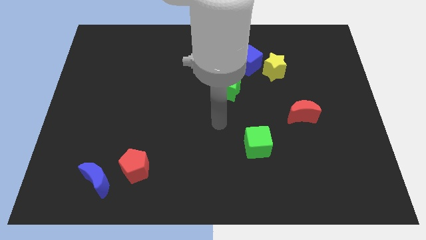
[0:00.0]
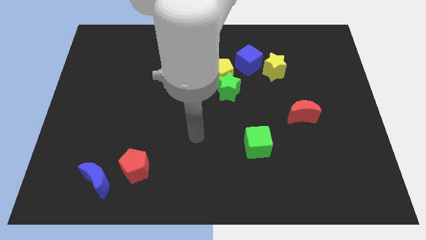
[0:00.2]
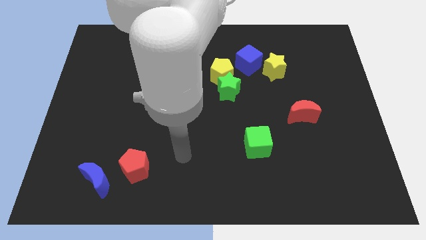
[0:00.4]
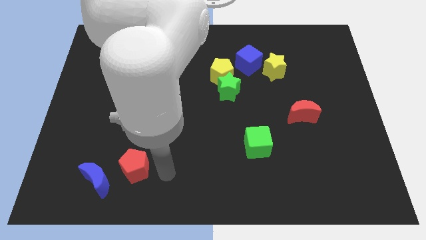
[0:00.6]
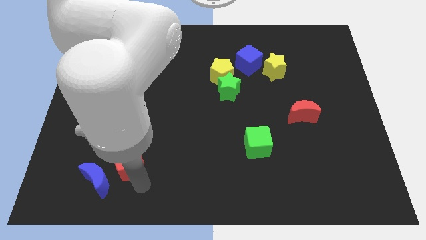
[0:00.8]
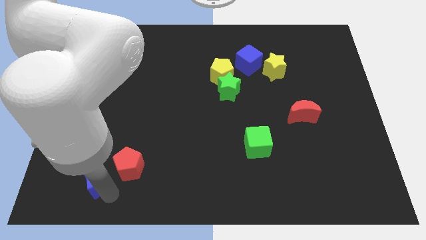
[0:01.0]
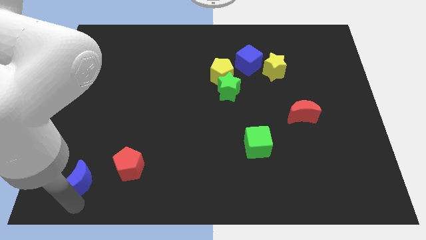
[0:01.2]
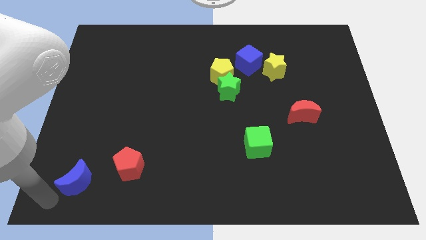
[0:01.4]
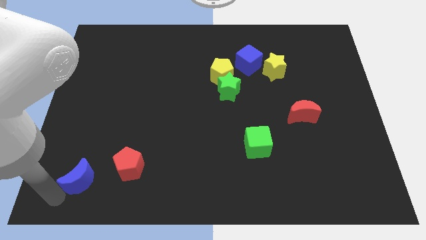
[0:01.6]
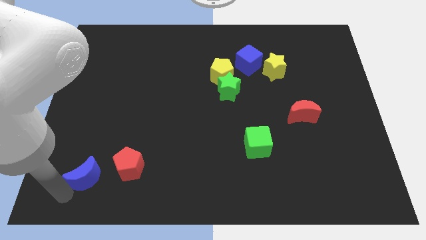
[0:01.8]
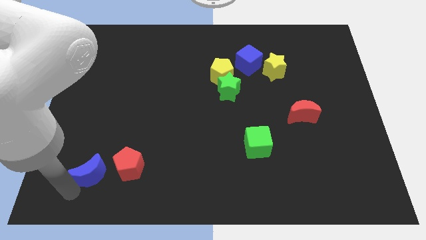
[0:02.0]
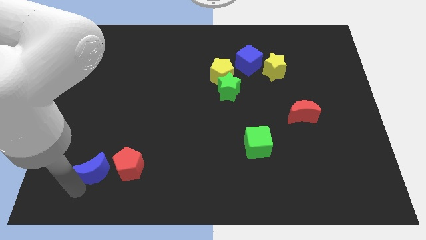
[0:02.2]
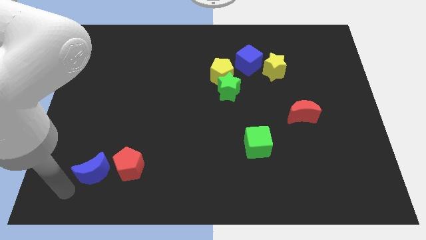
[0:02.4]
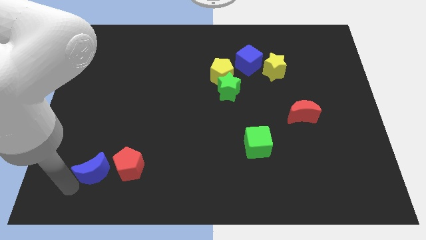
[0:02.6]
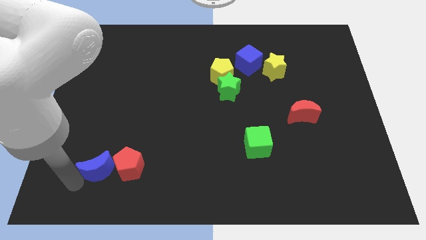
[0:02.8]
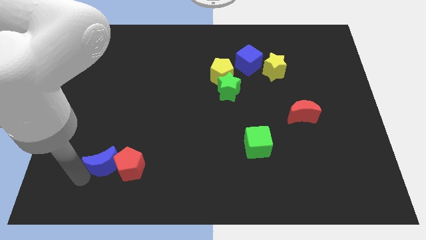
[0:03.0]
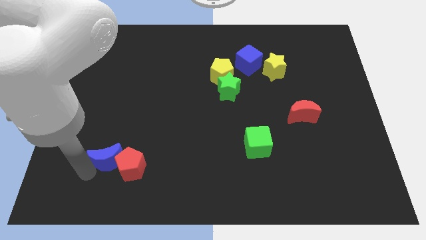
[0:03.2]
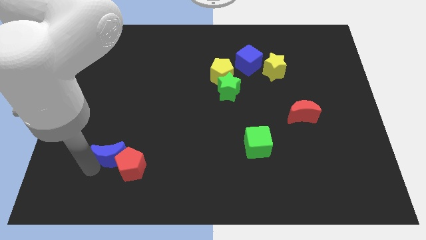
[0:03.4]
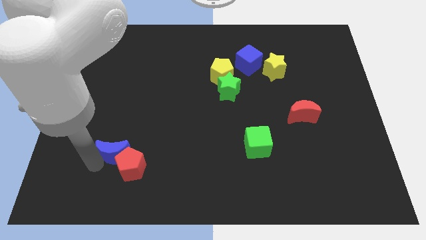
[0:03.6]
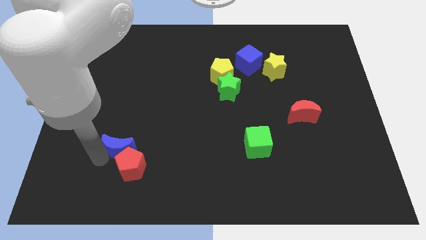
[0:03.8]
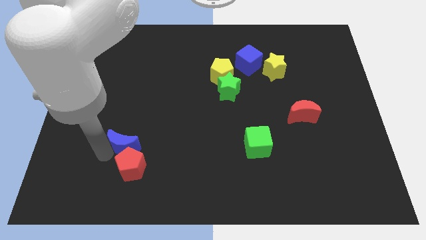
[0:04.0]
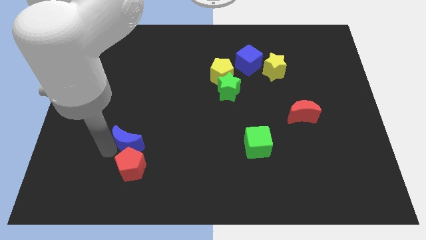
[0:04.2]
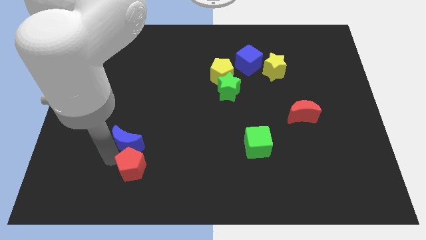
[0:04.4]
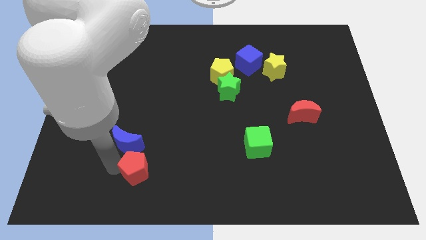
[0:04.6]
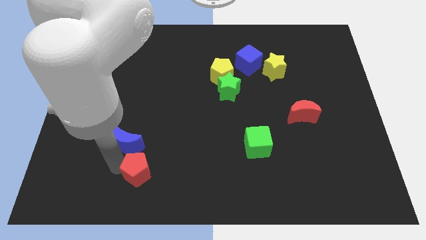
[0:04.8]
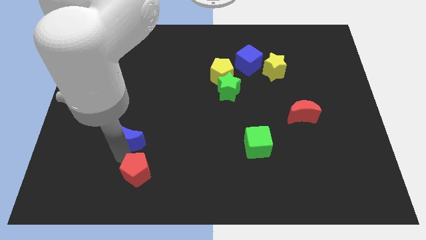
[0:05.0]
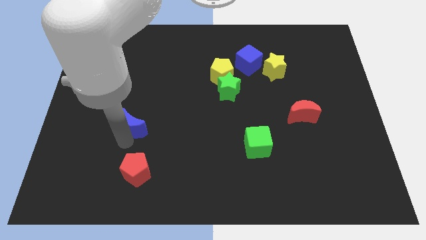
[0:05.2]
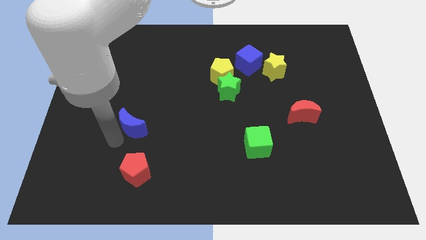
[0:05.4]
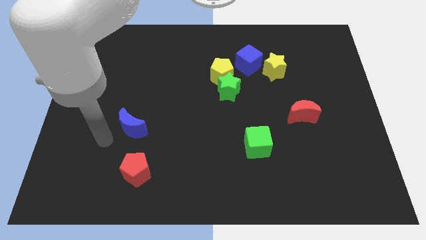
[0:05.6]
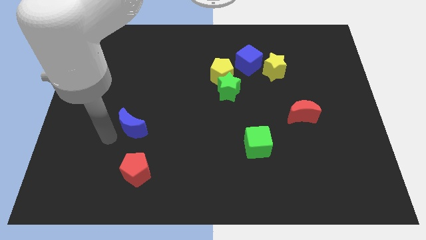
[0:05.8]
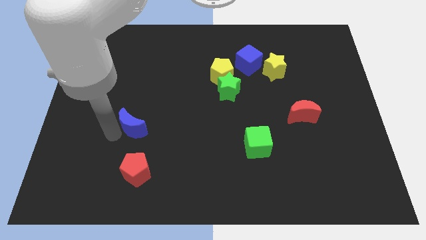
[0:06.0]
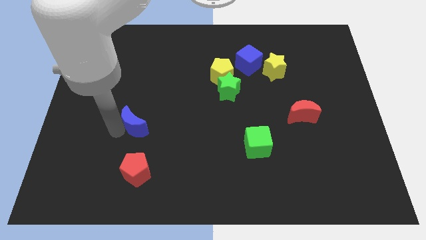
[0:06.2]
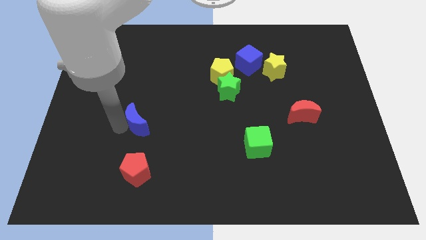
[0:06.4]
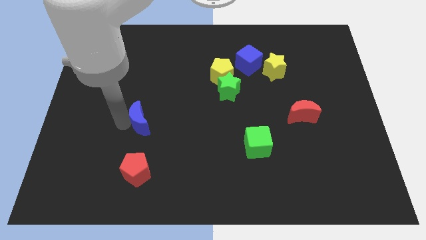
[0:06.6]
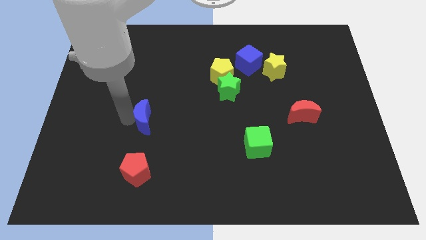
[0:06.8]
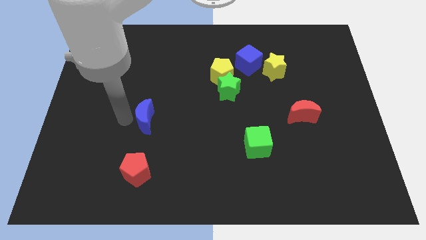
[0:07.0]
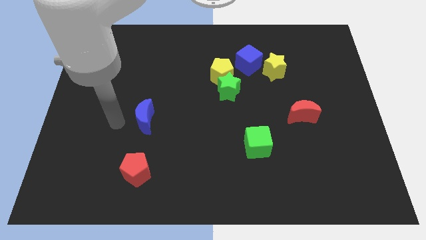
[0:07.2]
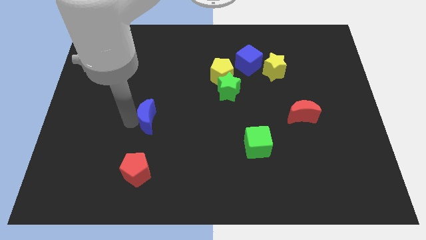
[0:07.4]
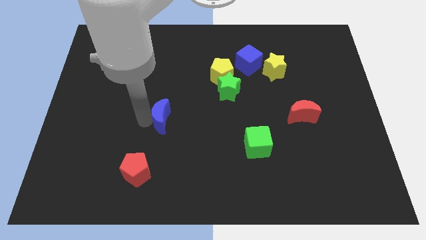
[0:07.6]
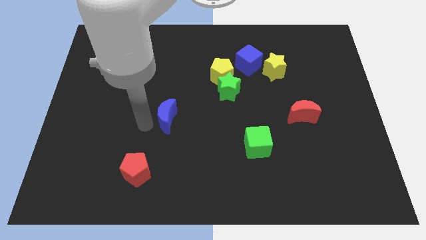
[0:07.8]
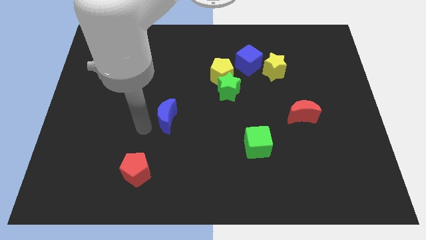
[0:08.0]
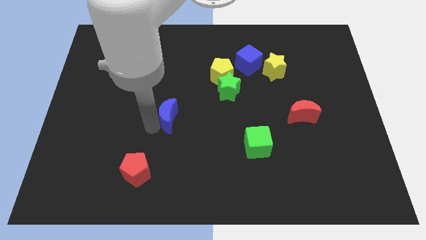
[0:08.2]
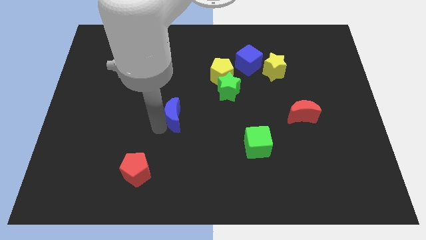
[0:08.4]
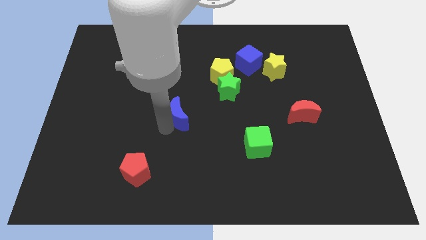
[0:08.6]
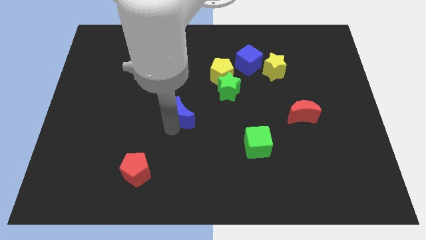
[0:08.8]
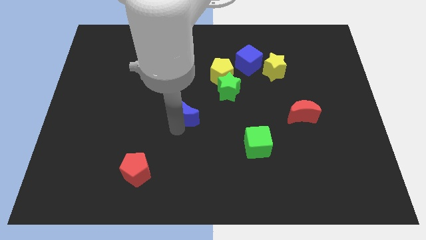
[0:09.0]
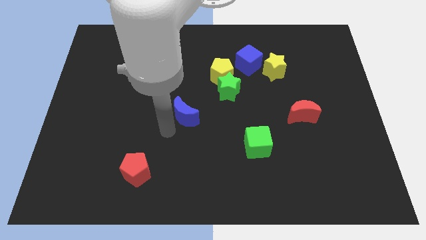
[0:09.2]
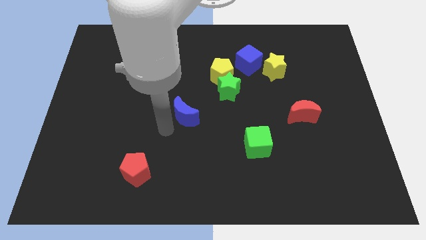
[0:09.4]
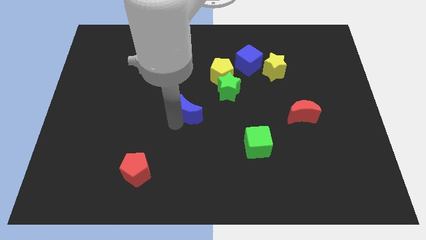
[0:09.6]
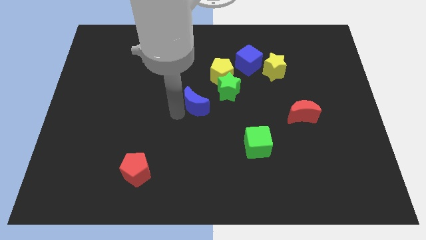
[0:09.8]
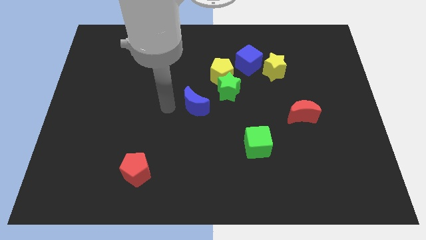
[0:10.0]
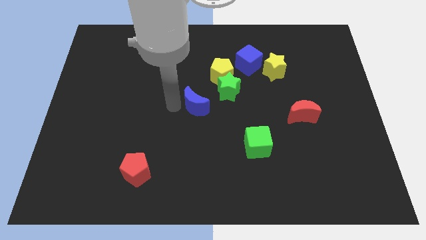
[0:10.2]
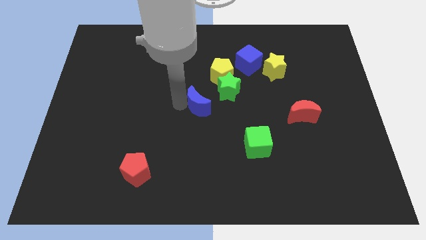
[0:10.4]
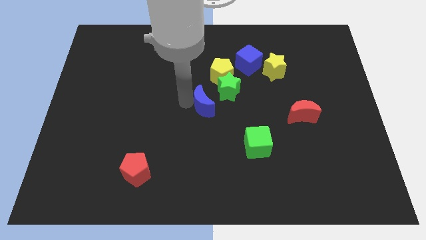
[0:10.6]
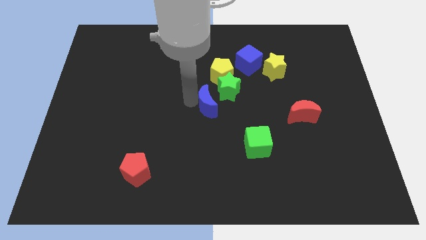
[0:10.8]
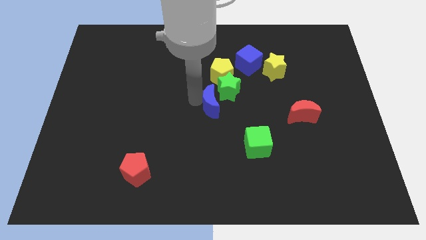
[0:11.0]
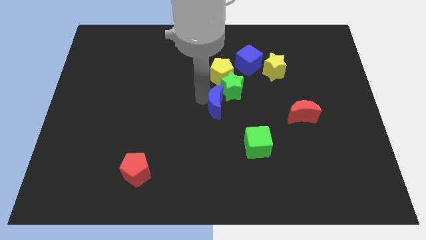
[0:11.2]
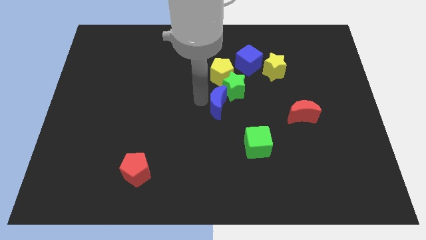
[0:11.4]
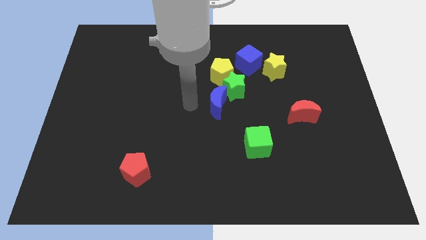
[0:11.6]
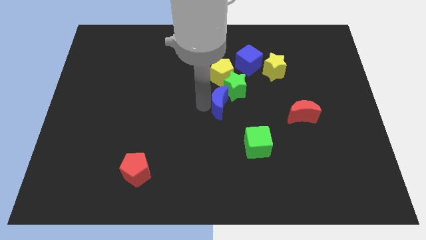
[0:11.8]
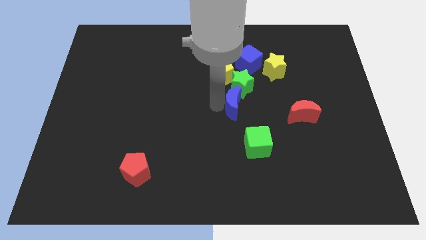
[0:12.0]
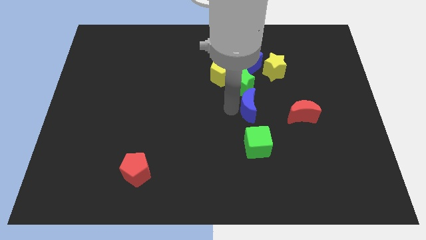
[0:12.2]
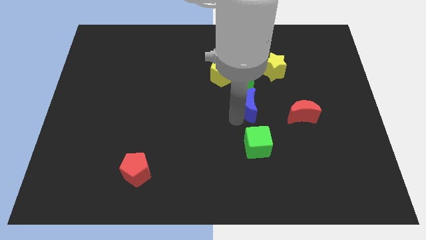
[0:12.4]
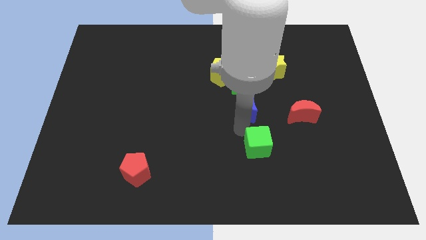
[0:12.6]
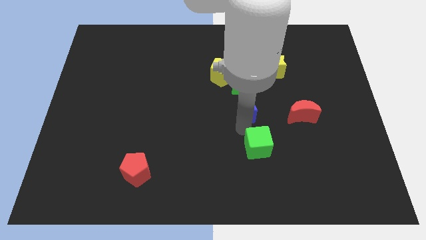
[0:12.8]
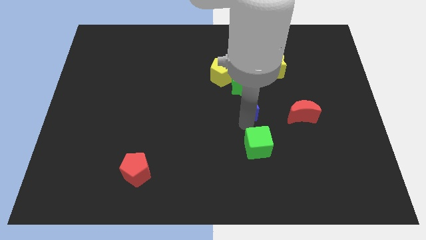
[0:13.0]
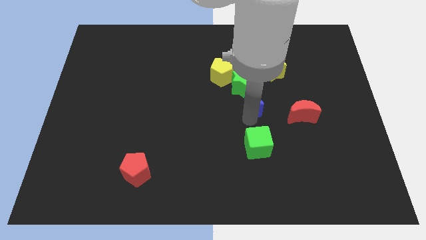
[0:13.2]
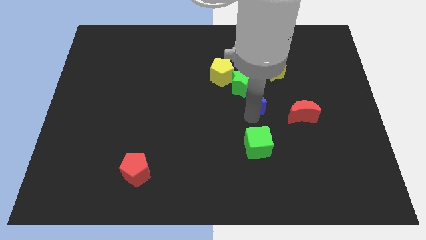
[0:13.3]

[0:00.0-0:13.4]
push the blue moon diagonally down and to the left of the yellow star
